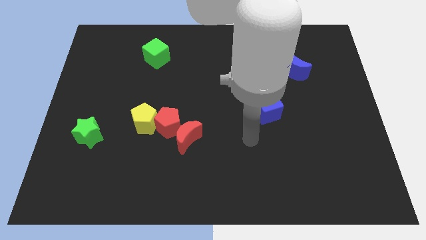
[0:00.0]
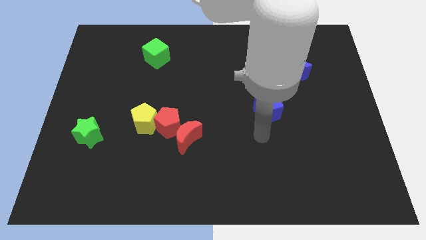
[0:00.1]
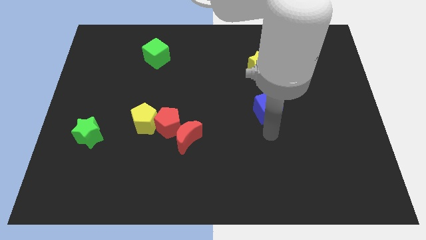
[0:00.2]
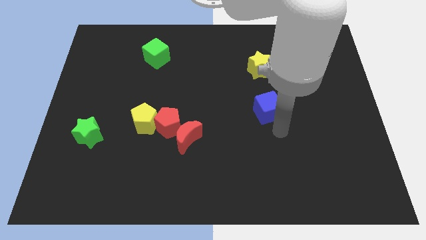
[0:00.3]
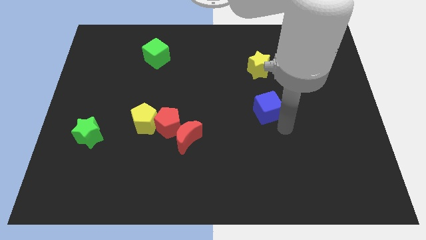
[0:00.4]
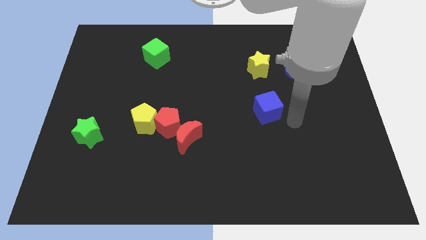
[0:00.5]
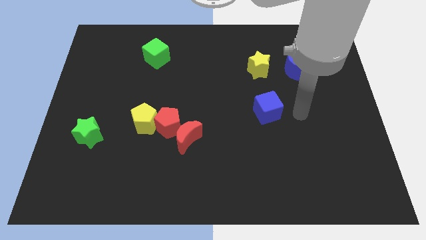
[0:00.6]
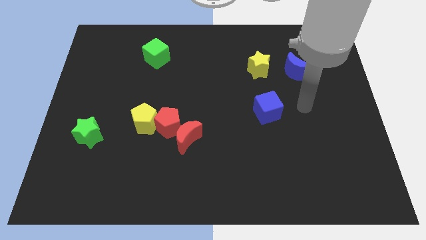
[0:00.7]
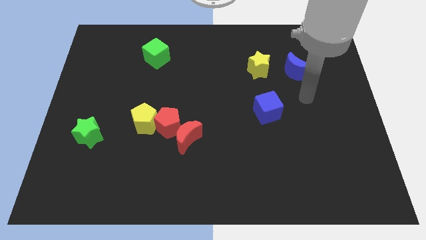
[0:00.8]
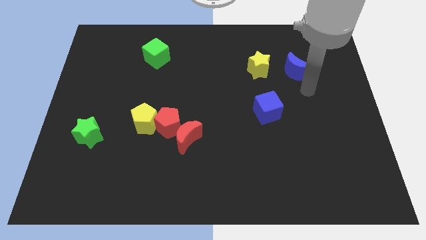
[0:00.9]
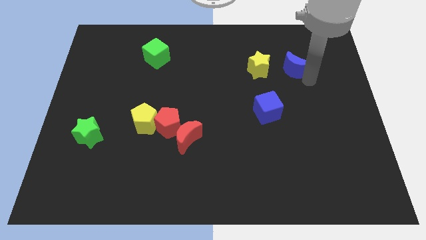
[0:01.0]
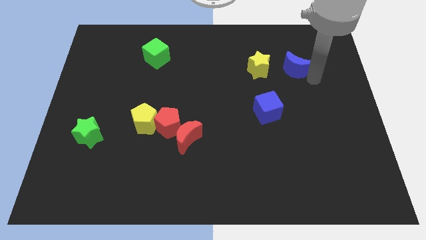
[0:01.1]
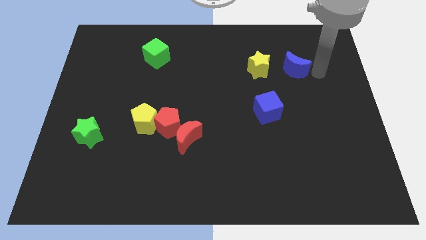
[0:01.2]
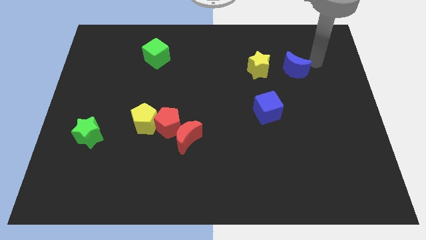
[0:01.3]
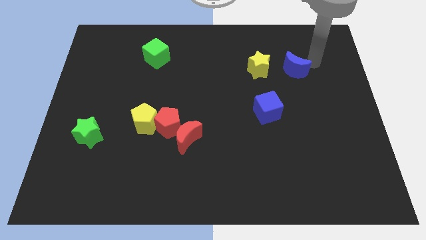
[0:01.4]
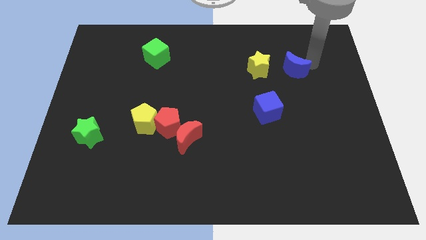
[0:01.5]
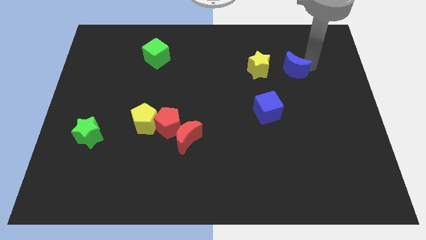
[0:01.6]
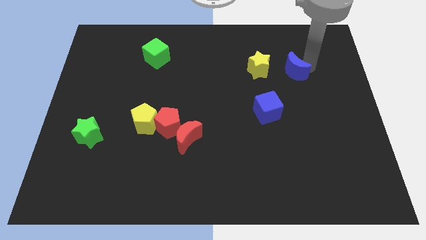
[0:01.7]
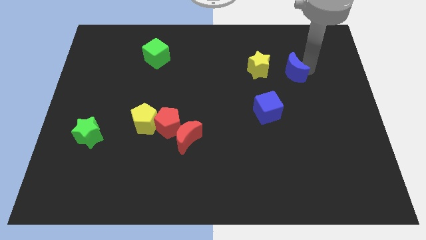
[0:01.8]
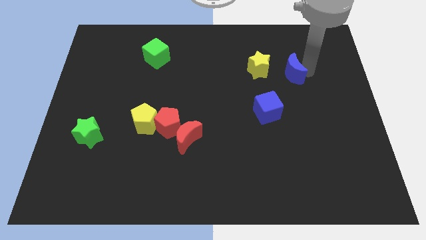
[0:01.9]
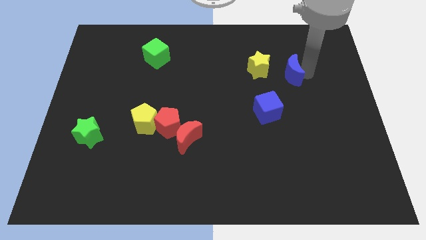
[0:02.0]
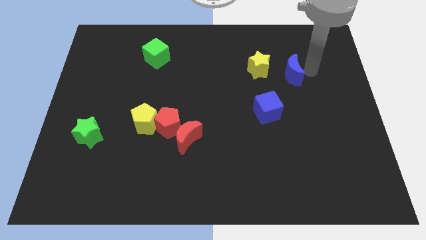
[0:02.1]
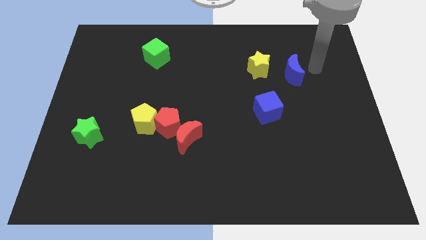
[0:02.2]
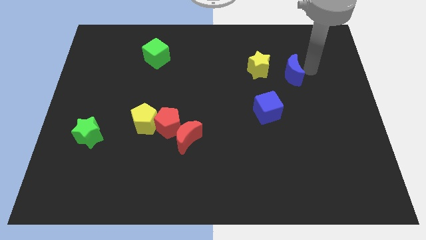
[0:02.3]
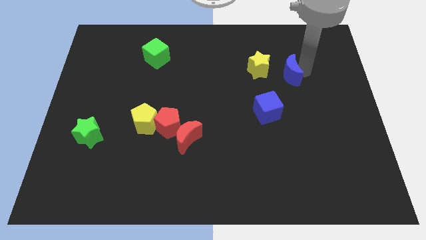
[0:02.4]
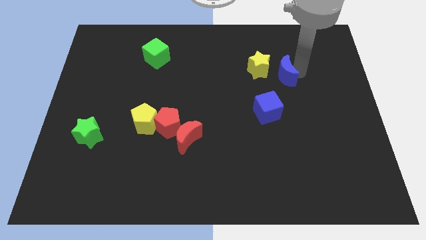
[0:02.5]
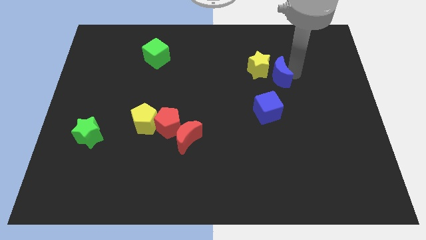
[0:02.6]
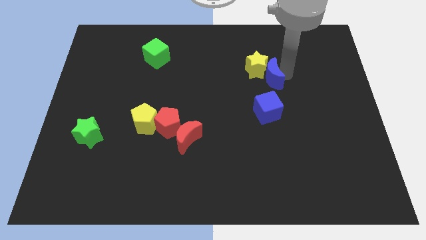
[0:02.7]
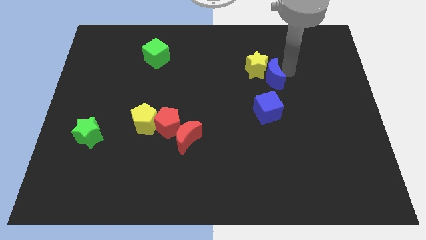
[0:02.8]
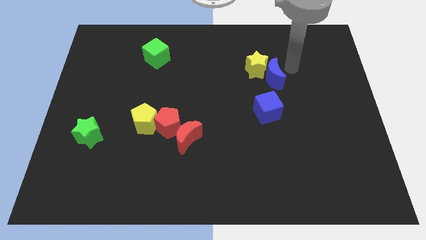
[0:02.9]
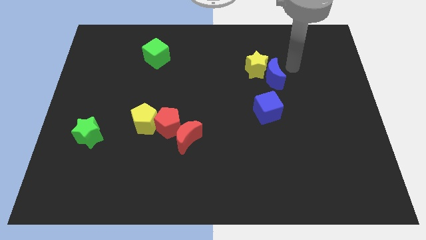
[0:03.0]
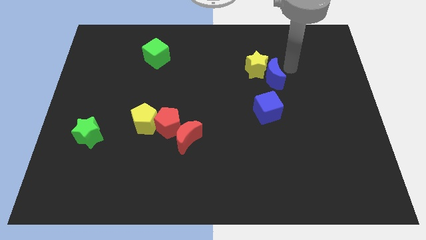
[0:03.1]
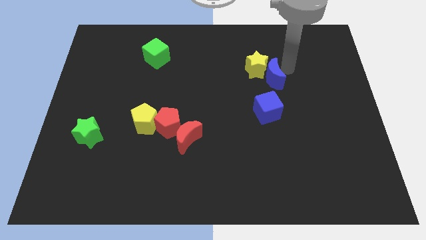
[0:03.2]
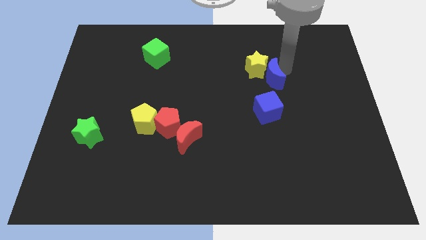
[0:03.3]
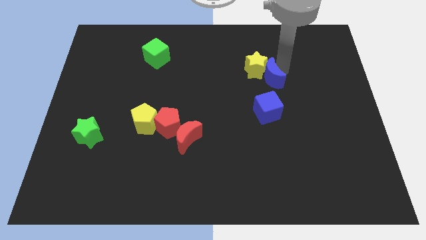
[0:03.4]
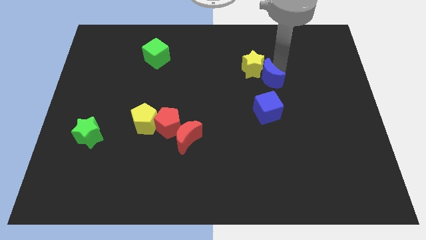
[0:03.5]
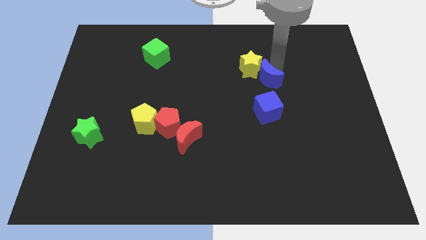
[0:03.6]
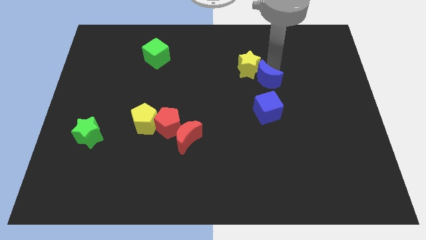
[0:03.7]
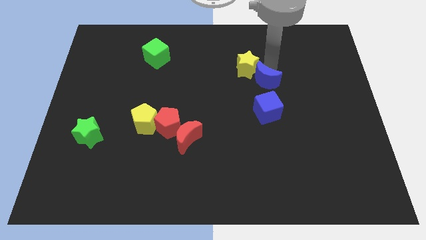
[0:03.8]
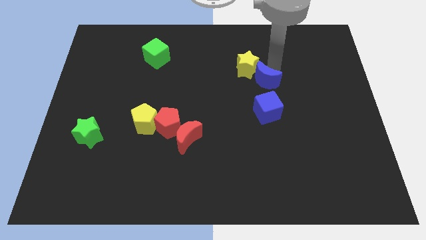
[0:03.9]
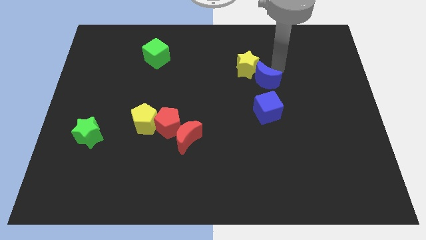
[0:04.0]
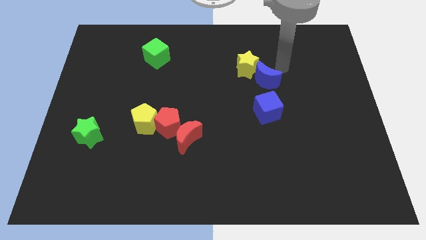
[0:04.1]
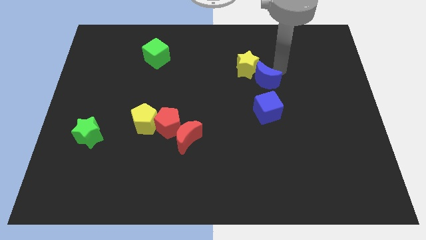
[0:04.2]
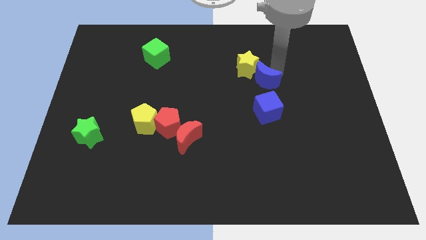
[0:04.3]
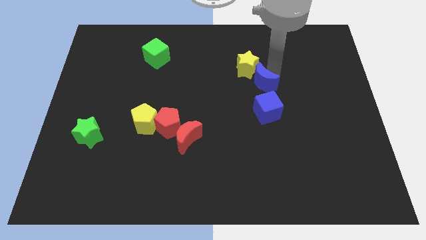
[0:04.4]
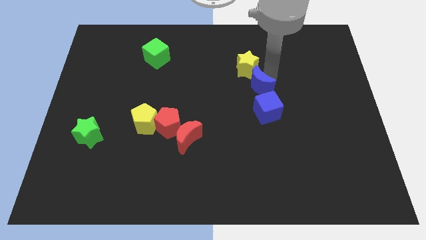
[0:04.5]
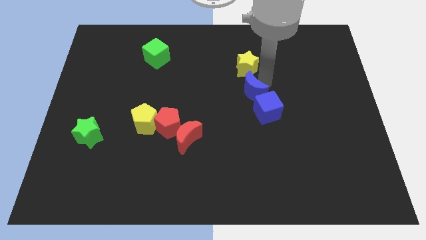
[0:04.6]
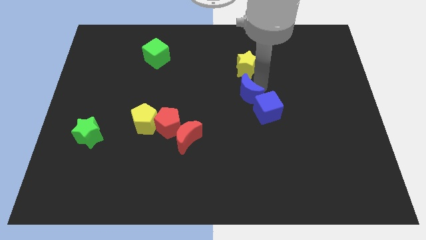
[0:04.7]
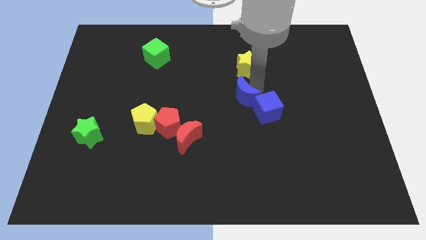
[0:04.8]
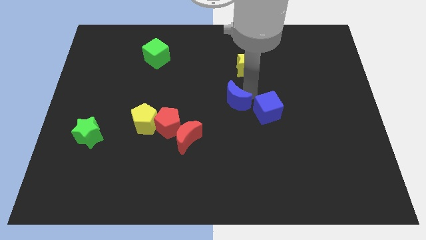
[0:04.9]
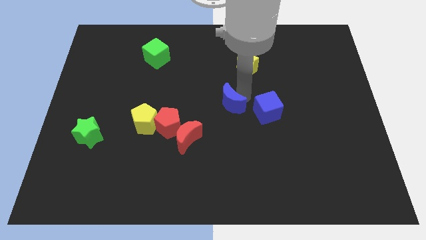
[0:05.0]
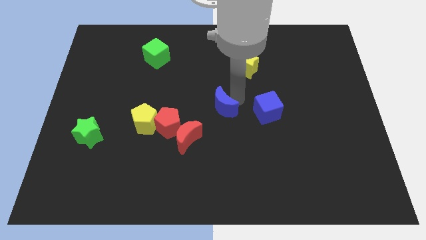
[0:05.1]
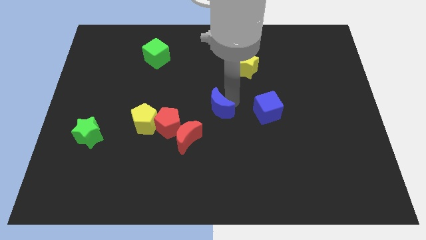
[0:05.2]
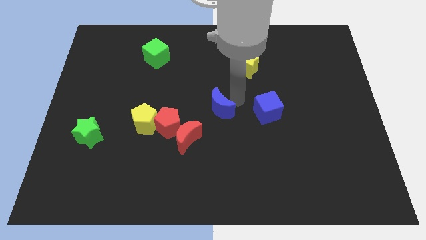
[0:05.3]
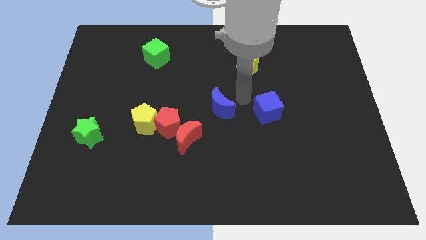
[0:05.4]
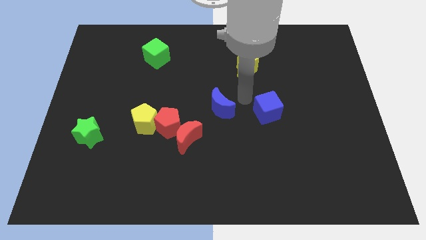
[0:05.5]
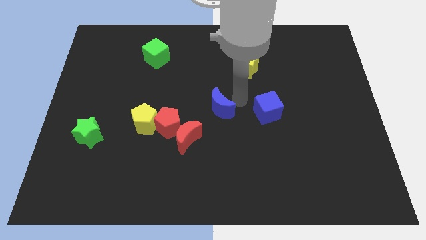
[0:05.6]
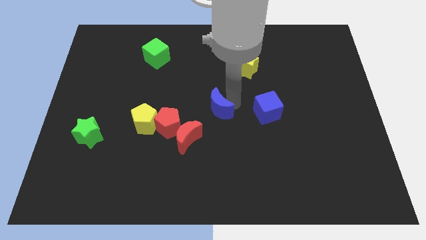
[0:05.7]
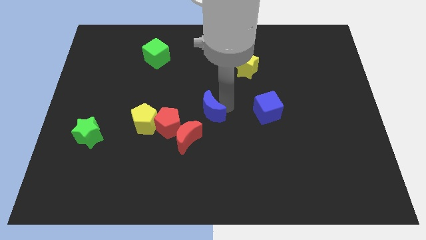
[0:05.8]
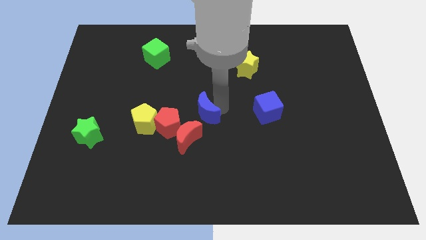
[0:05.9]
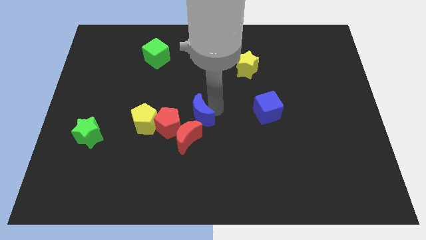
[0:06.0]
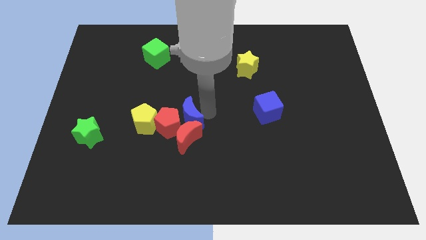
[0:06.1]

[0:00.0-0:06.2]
move the blue moon to the red pentagon
